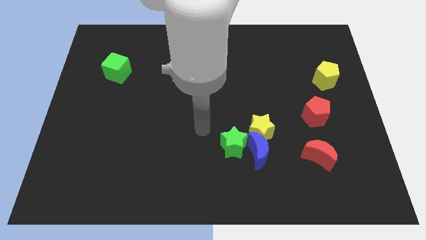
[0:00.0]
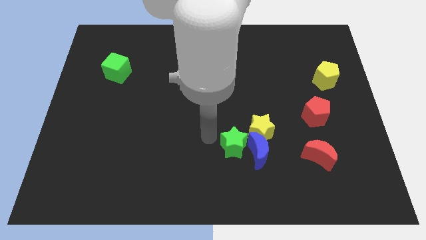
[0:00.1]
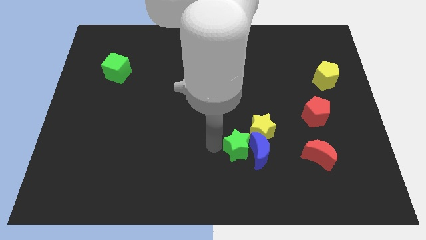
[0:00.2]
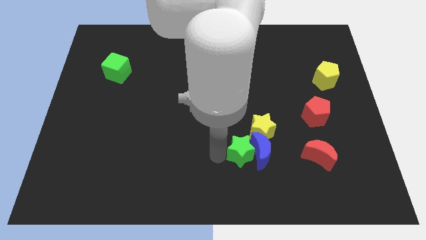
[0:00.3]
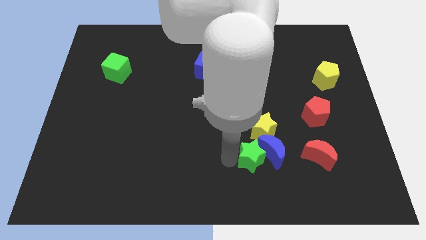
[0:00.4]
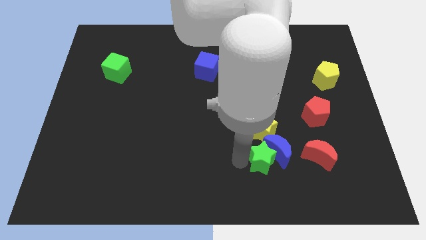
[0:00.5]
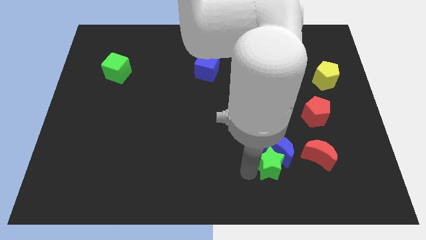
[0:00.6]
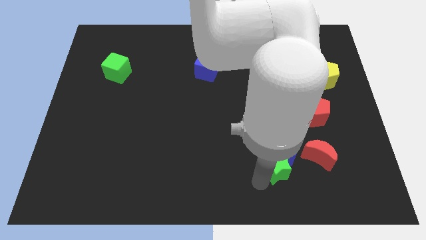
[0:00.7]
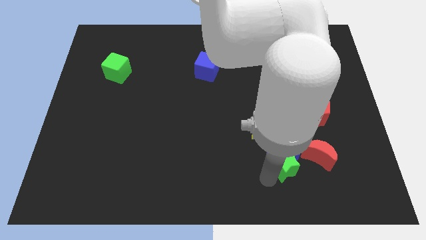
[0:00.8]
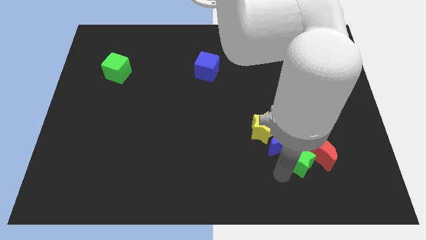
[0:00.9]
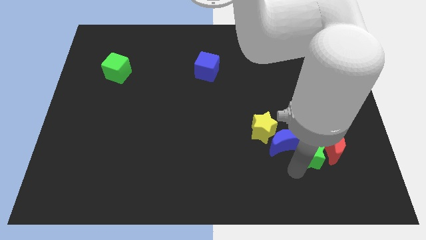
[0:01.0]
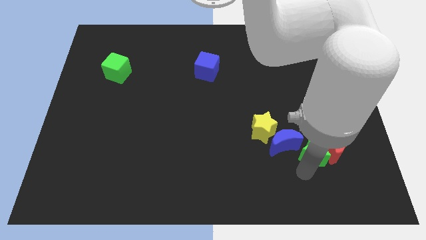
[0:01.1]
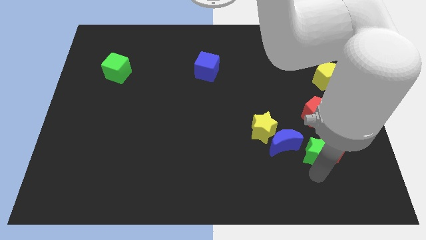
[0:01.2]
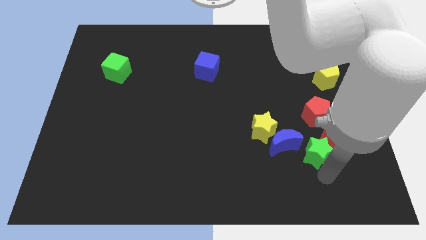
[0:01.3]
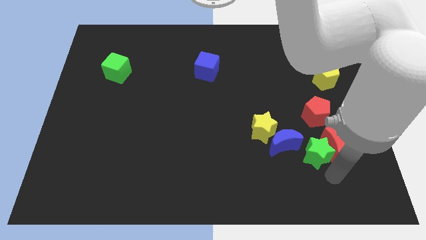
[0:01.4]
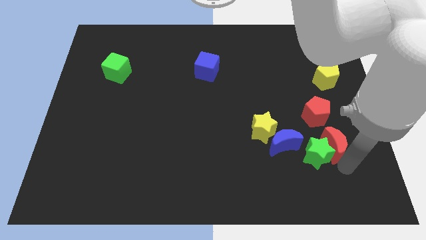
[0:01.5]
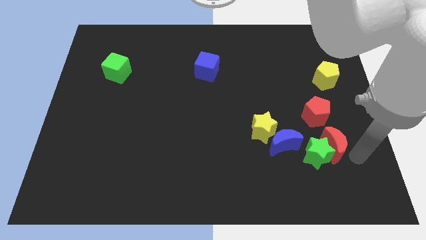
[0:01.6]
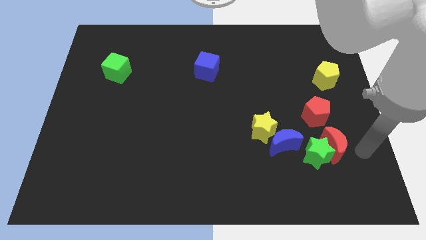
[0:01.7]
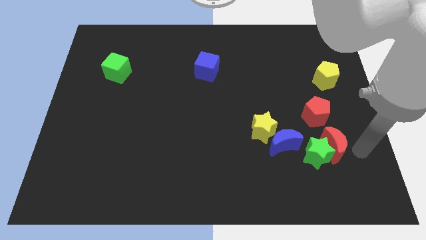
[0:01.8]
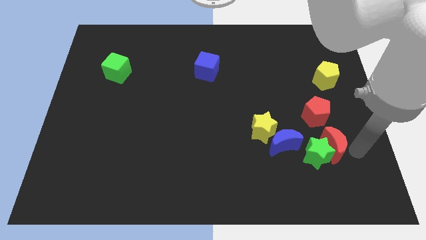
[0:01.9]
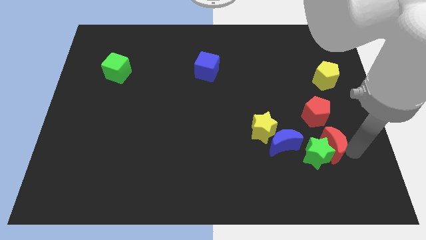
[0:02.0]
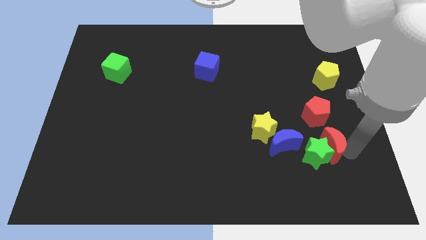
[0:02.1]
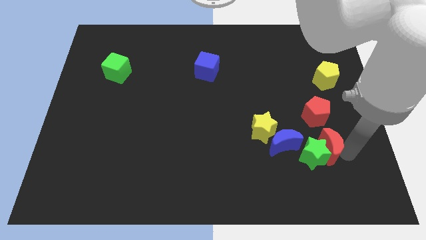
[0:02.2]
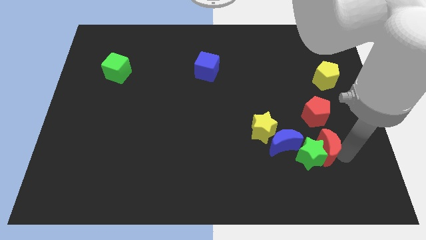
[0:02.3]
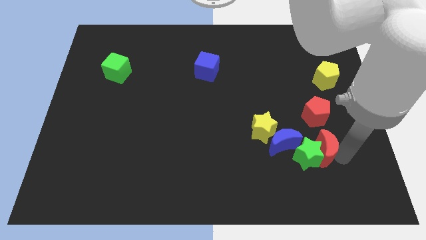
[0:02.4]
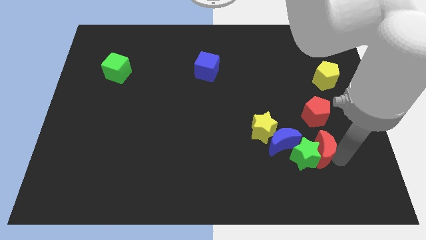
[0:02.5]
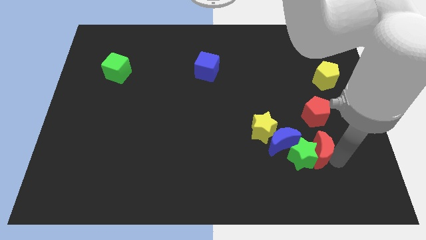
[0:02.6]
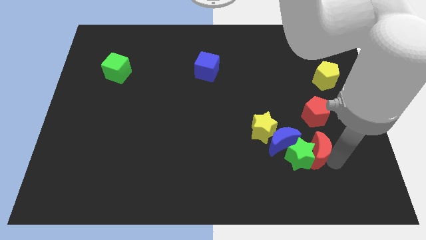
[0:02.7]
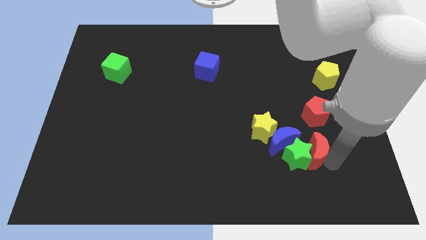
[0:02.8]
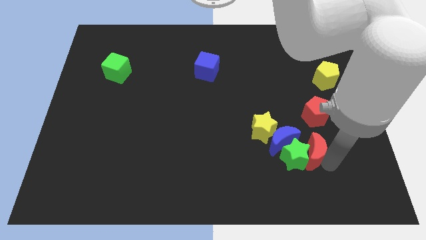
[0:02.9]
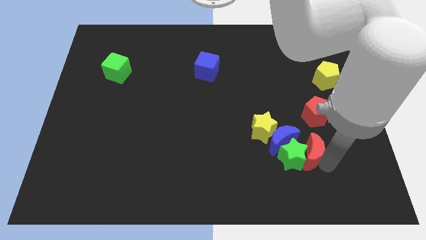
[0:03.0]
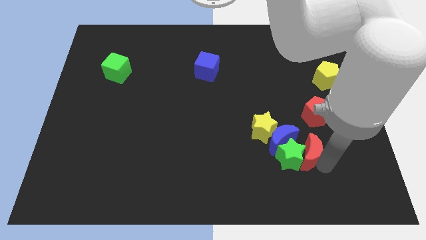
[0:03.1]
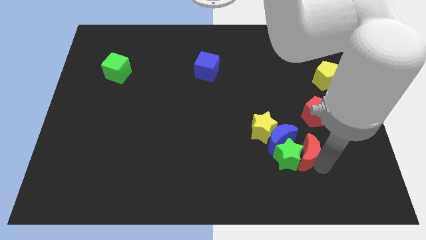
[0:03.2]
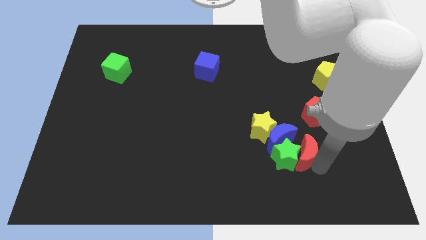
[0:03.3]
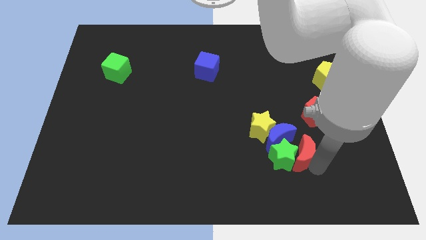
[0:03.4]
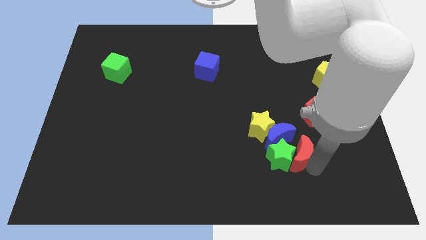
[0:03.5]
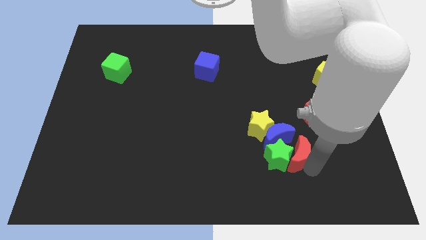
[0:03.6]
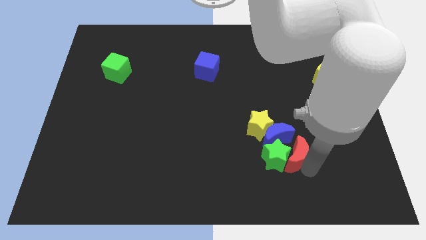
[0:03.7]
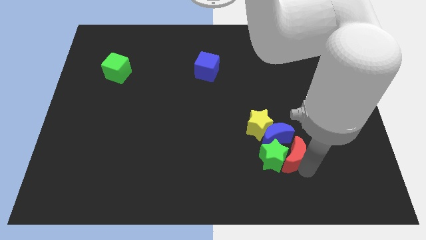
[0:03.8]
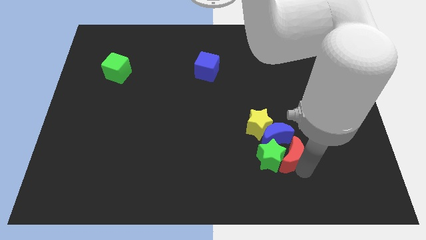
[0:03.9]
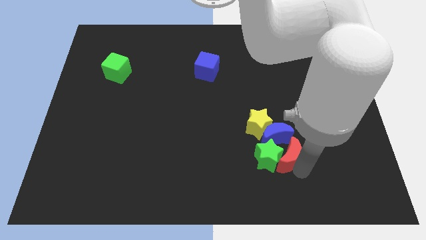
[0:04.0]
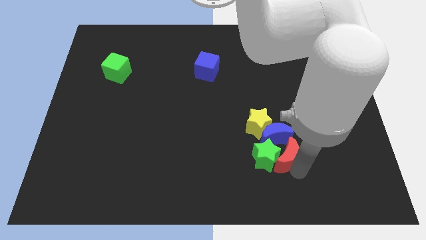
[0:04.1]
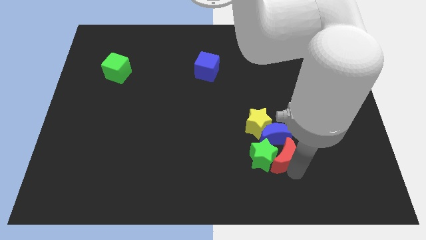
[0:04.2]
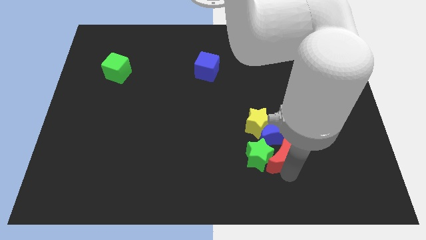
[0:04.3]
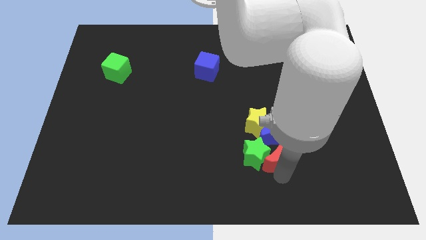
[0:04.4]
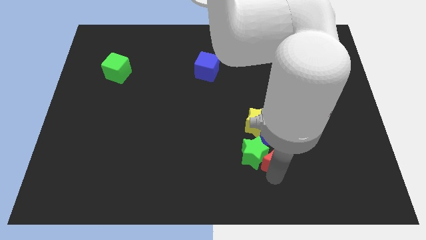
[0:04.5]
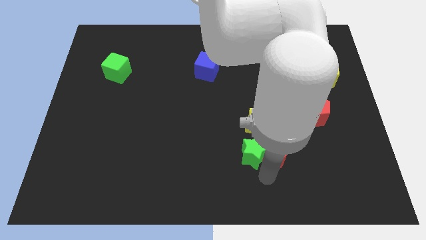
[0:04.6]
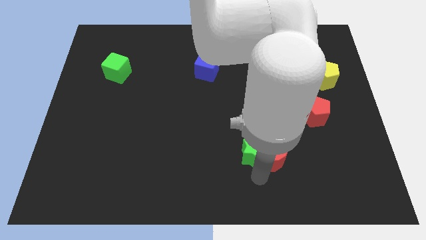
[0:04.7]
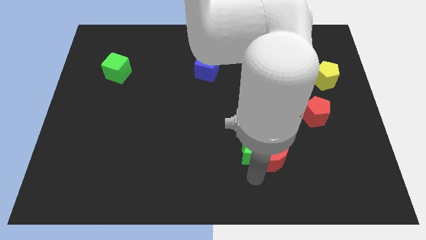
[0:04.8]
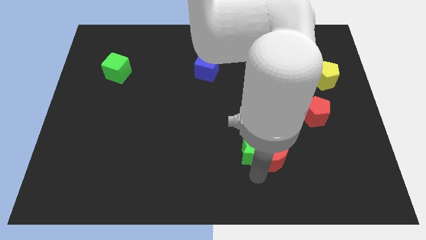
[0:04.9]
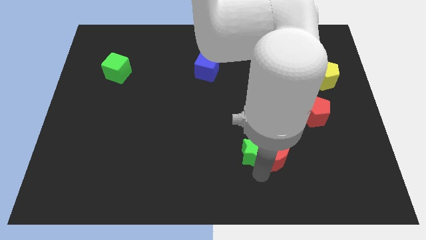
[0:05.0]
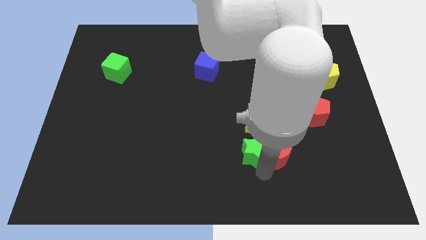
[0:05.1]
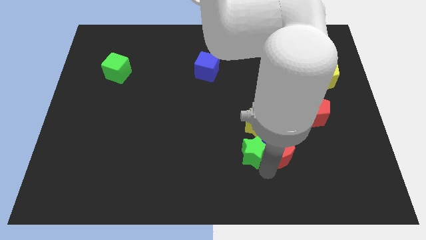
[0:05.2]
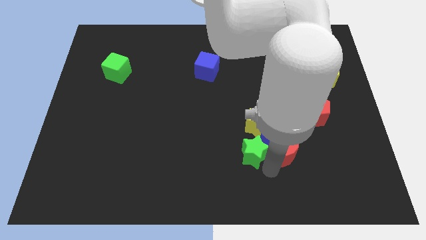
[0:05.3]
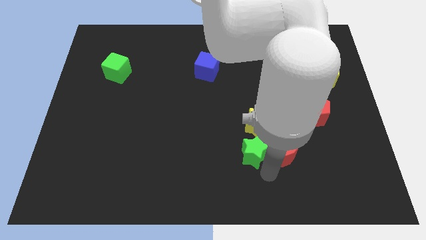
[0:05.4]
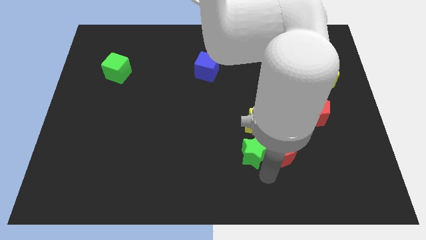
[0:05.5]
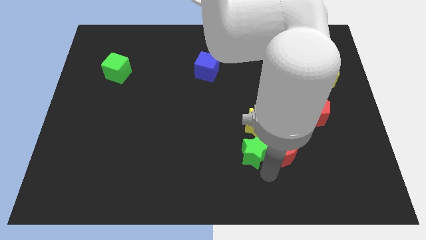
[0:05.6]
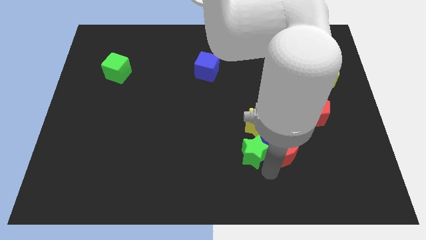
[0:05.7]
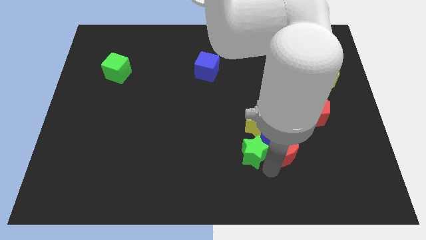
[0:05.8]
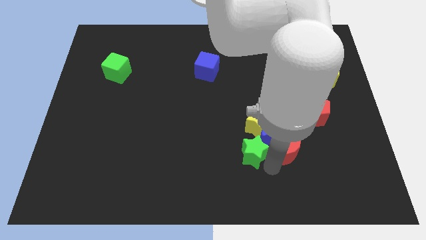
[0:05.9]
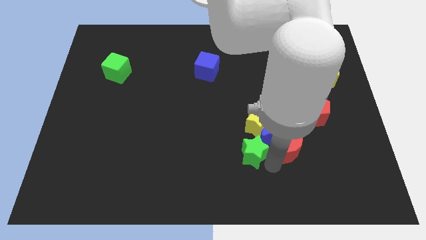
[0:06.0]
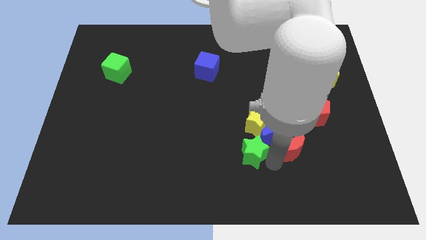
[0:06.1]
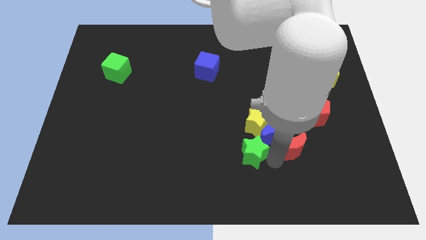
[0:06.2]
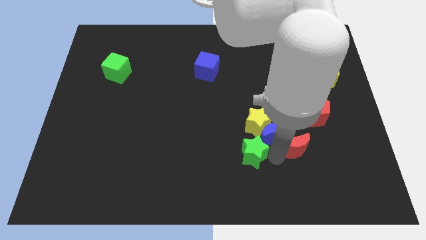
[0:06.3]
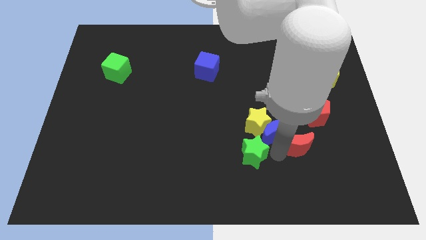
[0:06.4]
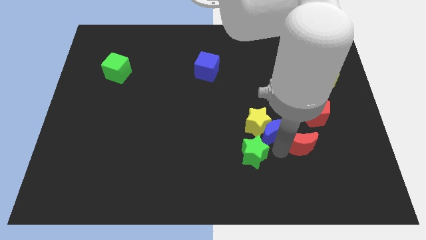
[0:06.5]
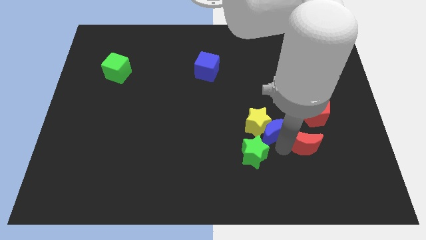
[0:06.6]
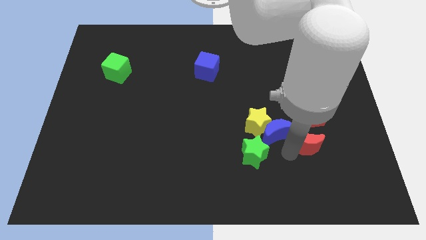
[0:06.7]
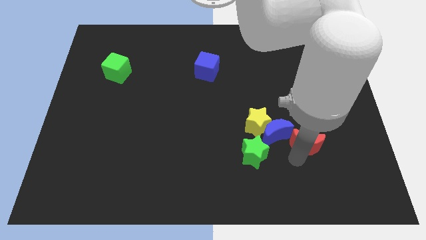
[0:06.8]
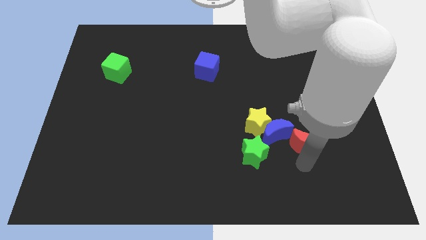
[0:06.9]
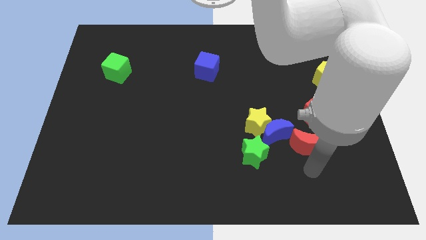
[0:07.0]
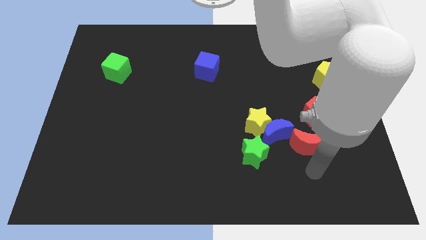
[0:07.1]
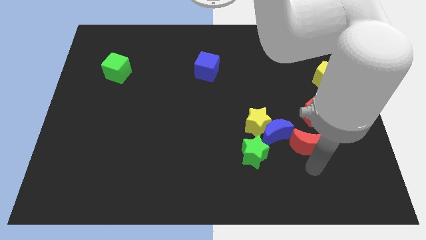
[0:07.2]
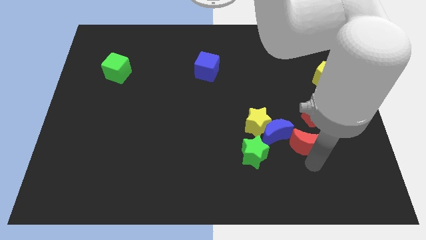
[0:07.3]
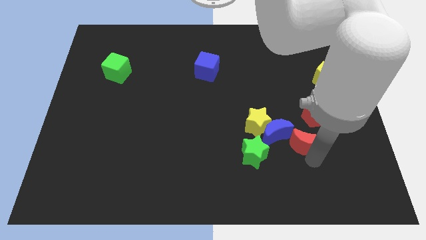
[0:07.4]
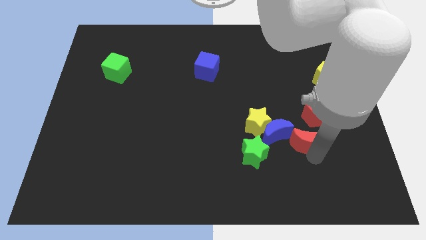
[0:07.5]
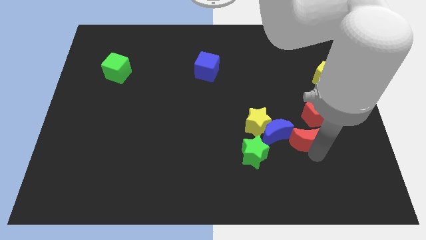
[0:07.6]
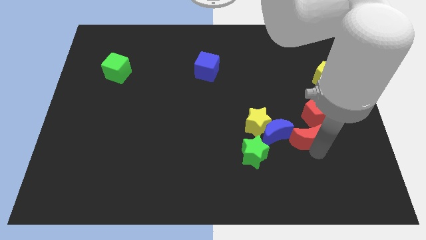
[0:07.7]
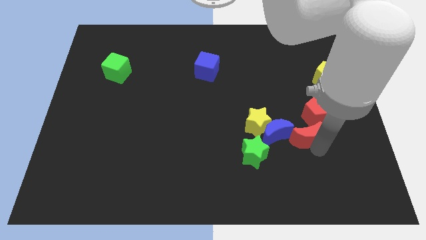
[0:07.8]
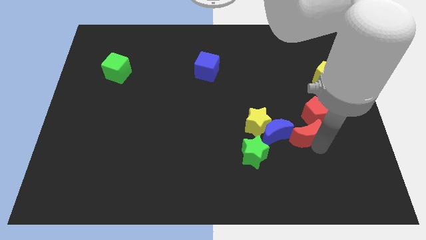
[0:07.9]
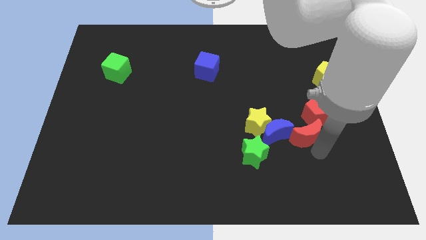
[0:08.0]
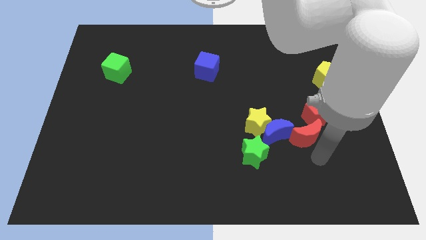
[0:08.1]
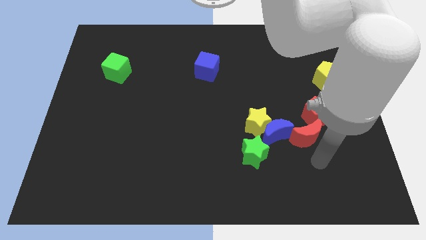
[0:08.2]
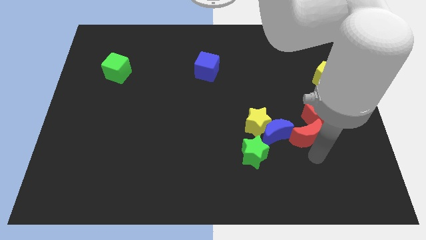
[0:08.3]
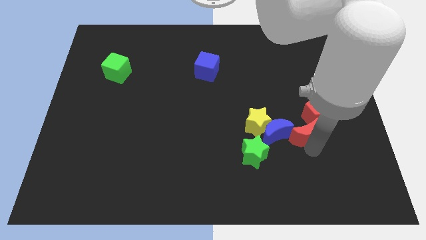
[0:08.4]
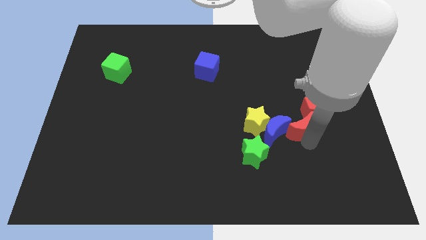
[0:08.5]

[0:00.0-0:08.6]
put the red moon to the top right of the blue moon
